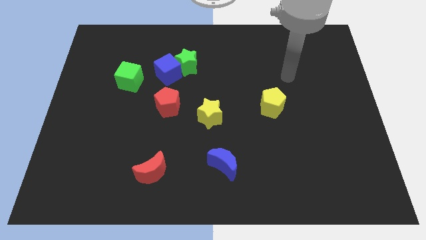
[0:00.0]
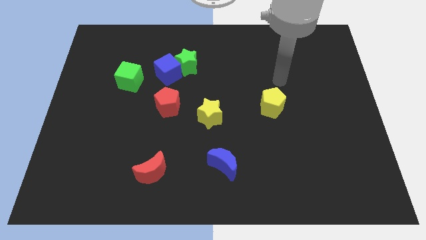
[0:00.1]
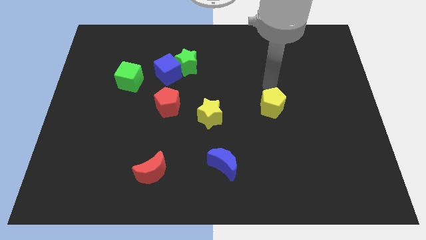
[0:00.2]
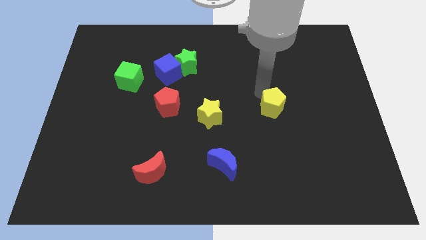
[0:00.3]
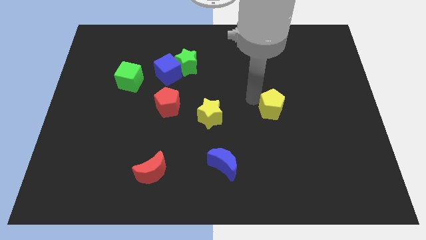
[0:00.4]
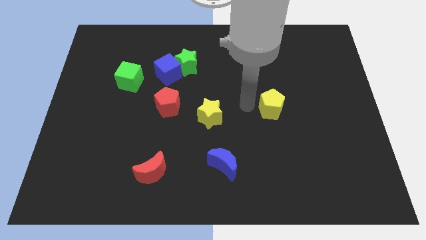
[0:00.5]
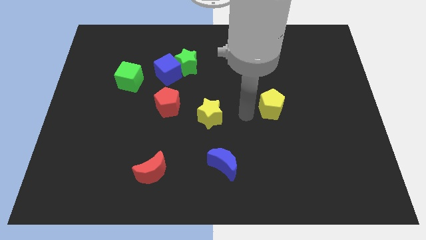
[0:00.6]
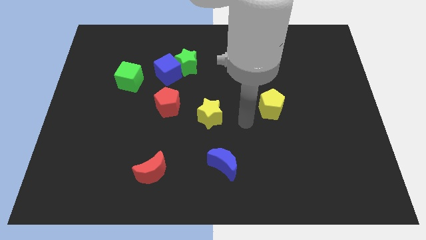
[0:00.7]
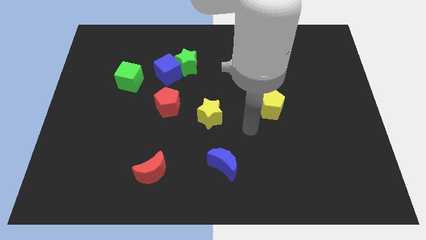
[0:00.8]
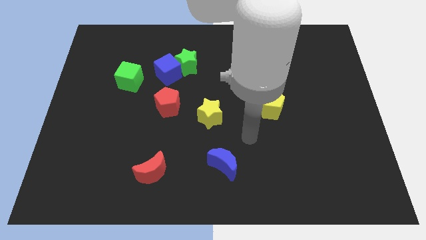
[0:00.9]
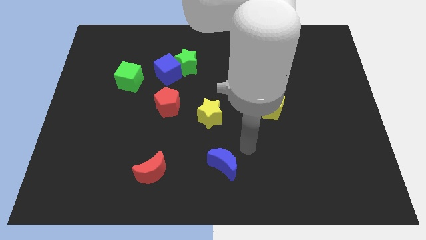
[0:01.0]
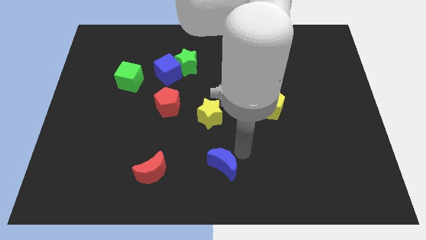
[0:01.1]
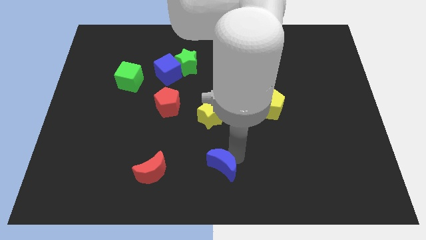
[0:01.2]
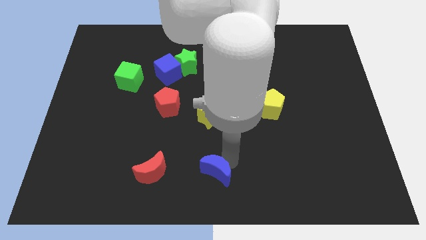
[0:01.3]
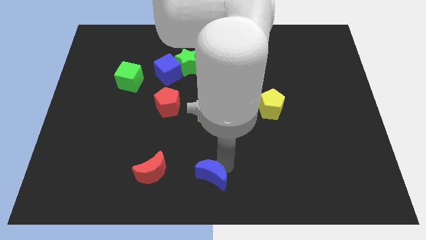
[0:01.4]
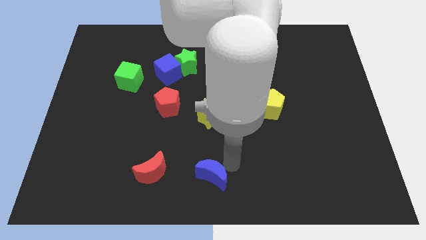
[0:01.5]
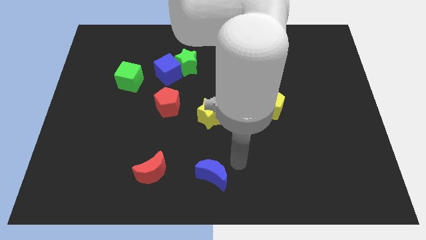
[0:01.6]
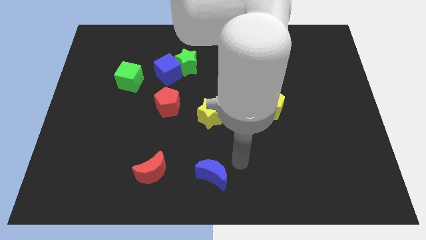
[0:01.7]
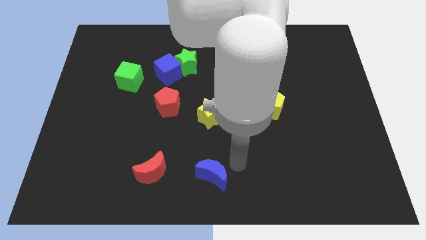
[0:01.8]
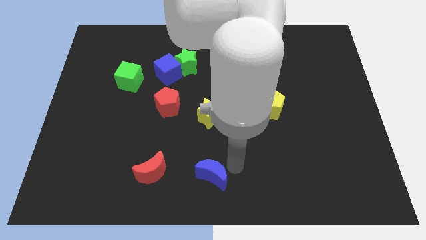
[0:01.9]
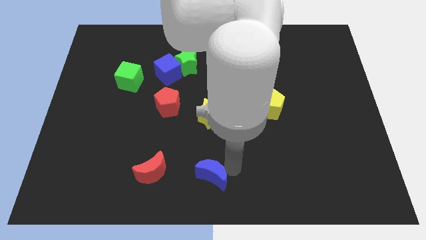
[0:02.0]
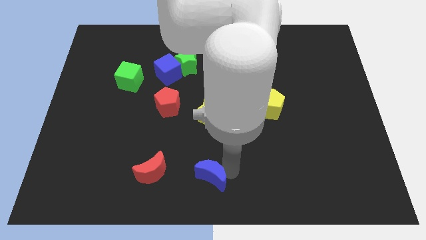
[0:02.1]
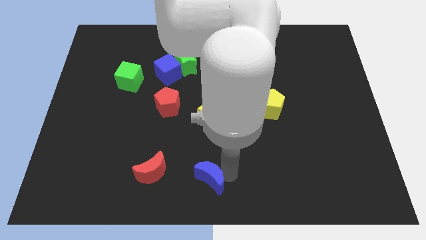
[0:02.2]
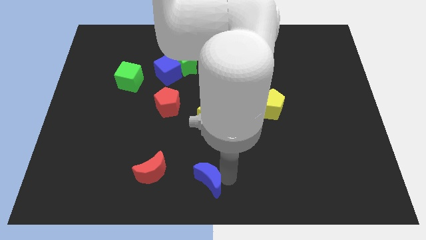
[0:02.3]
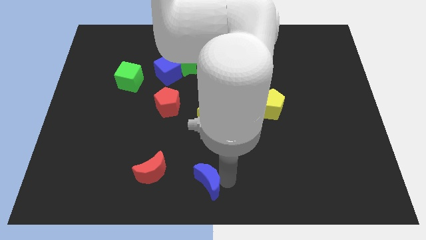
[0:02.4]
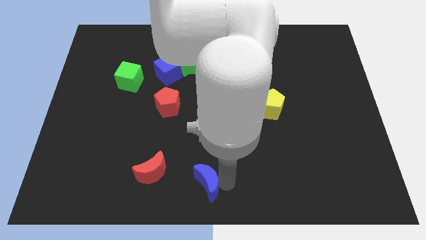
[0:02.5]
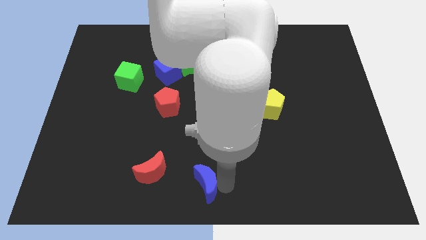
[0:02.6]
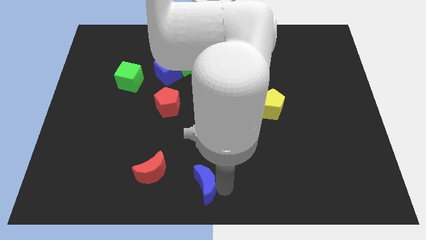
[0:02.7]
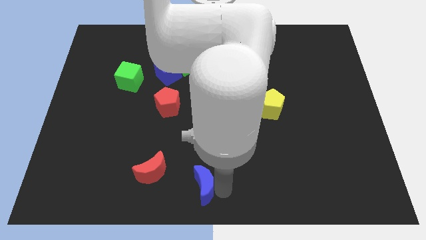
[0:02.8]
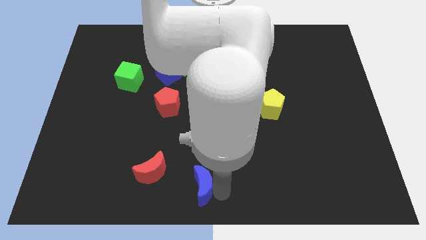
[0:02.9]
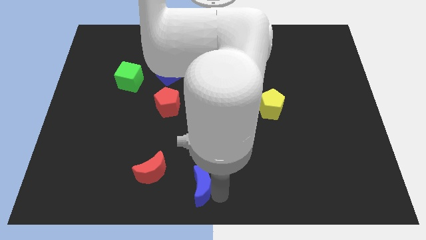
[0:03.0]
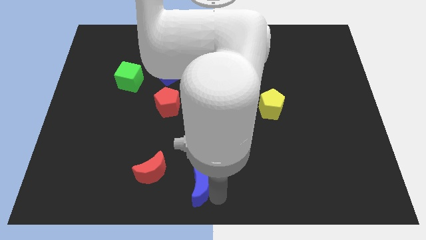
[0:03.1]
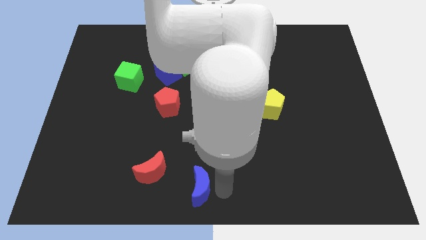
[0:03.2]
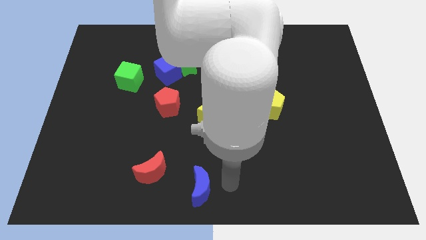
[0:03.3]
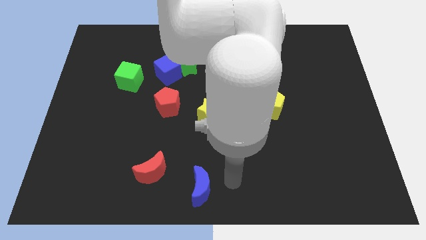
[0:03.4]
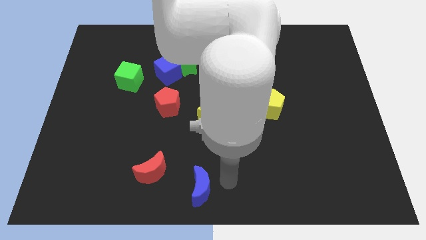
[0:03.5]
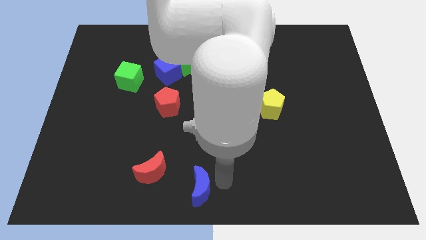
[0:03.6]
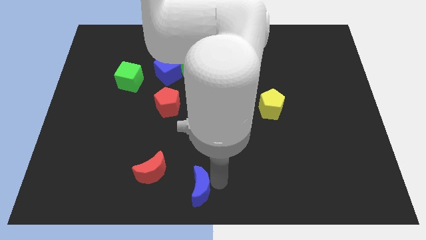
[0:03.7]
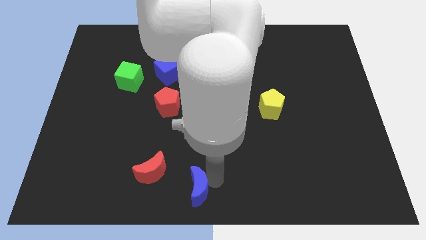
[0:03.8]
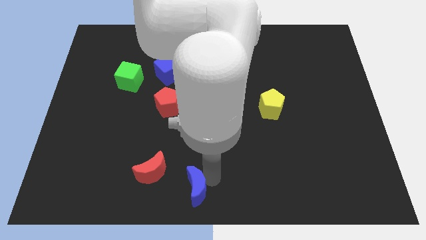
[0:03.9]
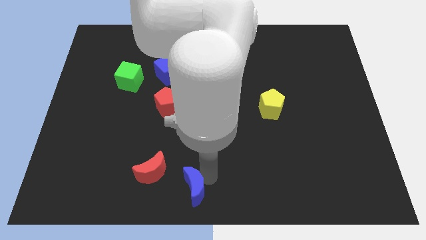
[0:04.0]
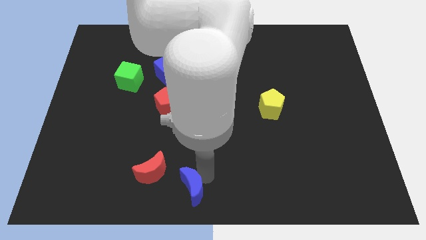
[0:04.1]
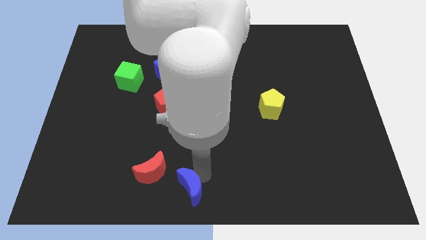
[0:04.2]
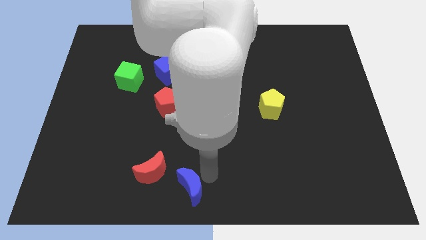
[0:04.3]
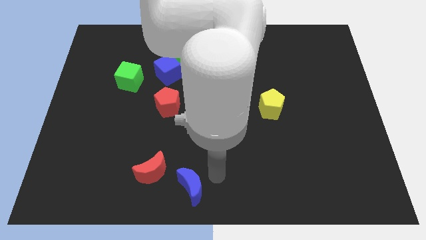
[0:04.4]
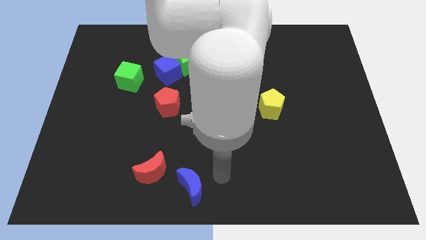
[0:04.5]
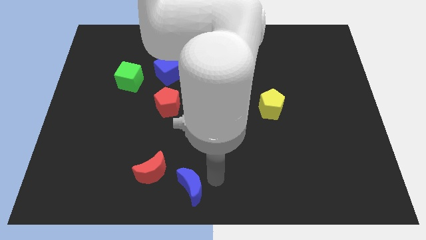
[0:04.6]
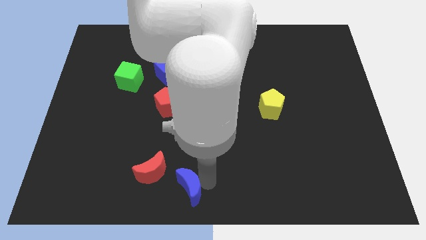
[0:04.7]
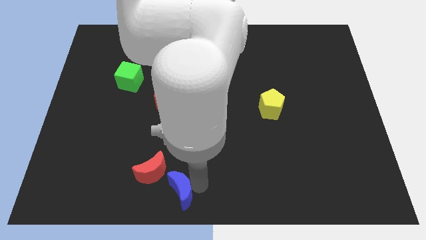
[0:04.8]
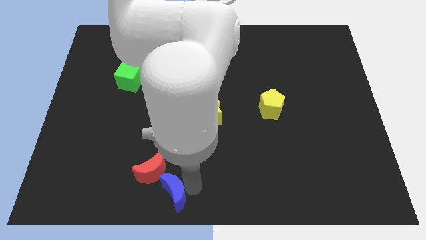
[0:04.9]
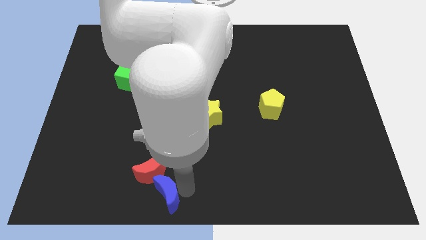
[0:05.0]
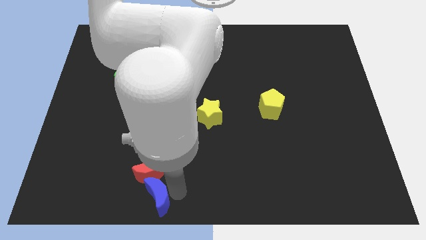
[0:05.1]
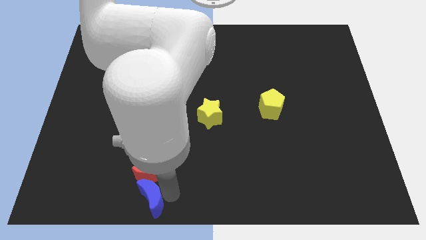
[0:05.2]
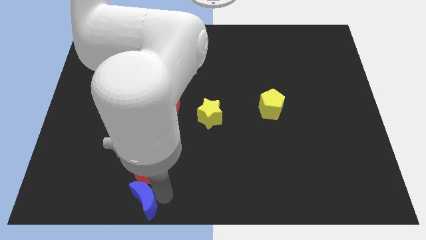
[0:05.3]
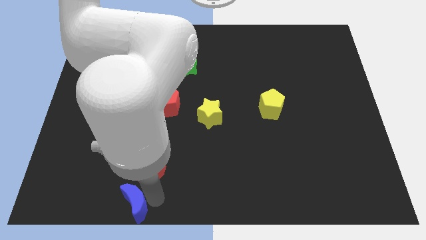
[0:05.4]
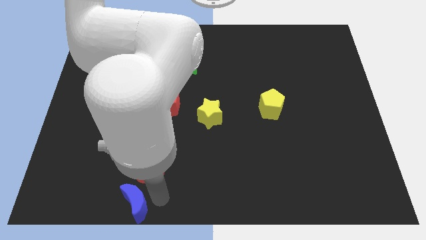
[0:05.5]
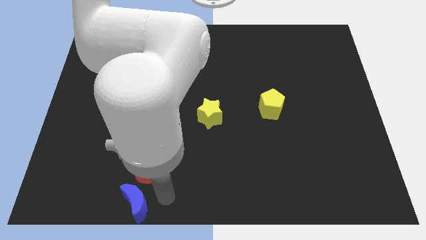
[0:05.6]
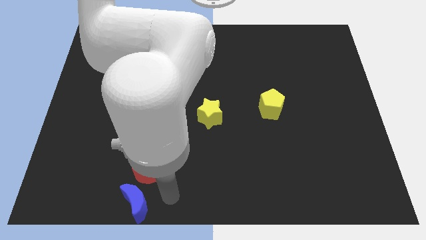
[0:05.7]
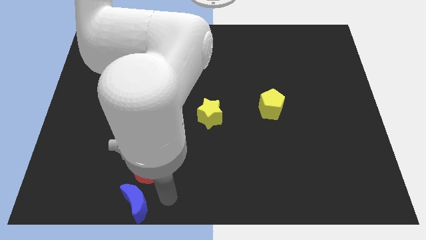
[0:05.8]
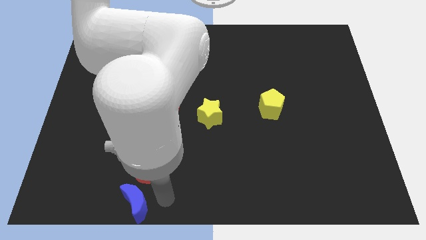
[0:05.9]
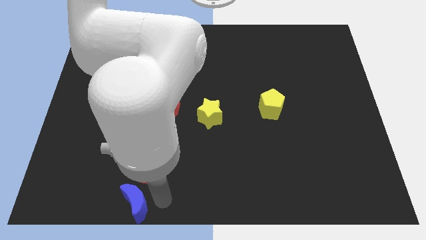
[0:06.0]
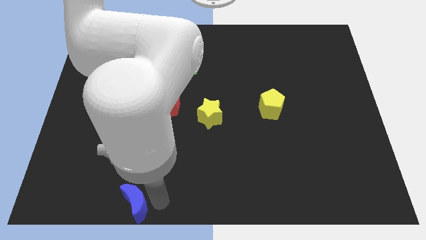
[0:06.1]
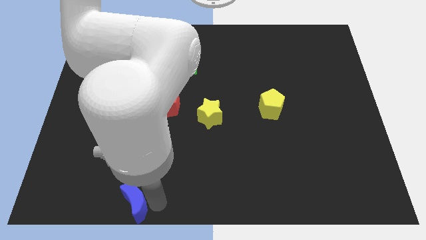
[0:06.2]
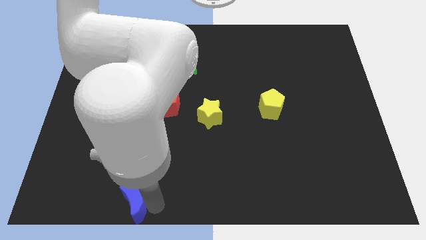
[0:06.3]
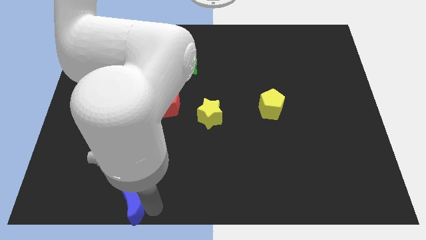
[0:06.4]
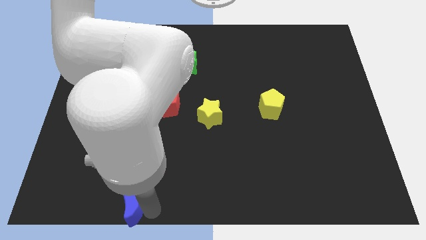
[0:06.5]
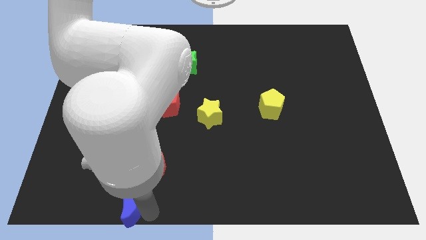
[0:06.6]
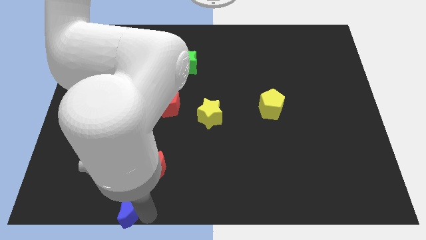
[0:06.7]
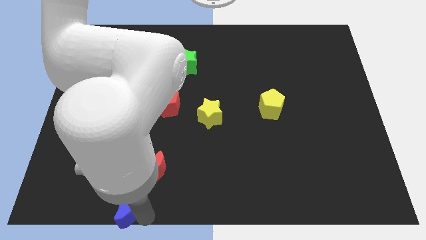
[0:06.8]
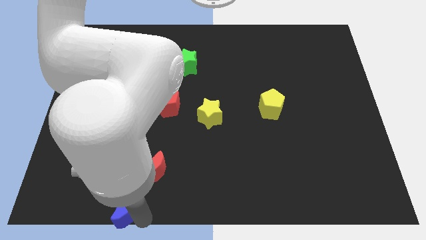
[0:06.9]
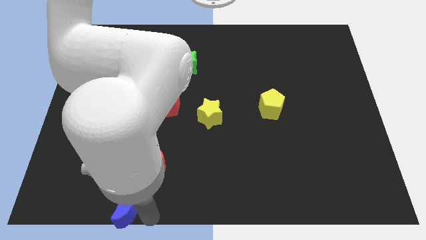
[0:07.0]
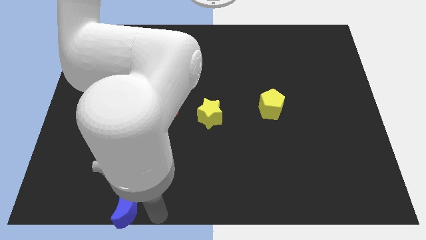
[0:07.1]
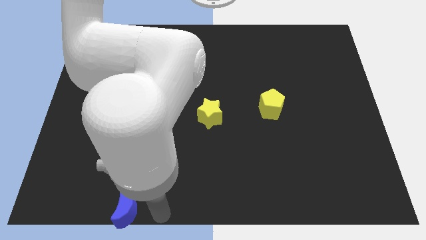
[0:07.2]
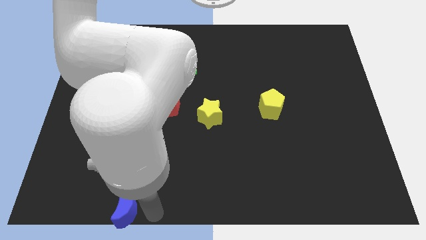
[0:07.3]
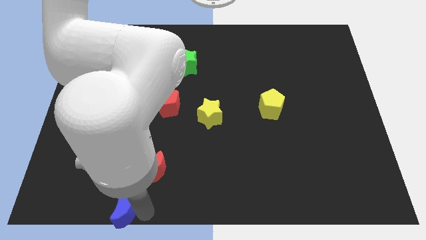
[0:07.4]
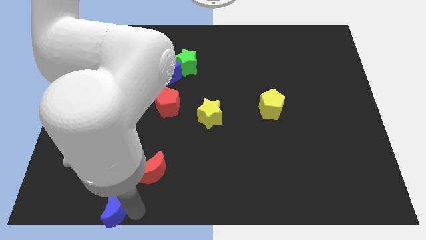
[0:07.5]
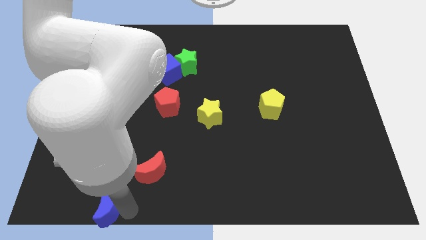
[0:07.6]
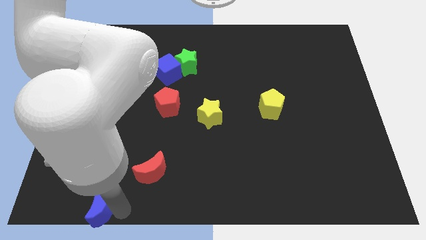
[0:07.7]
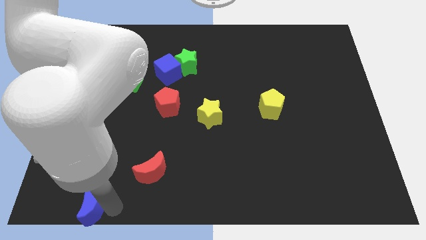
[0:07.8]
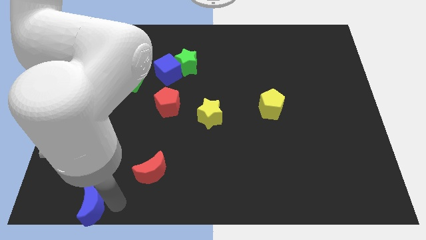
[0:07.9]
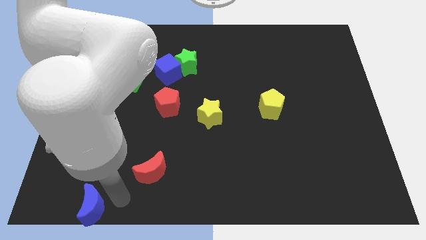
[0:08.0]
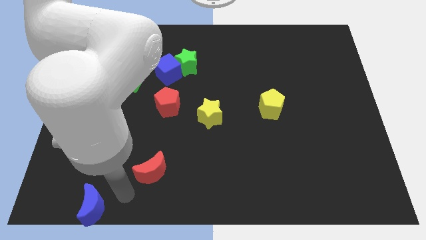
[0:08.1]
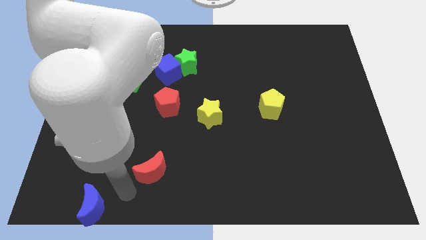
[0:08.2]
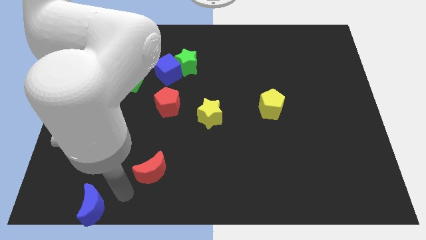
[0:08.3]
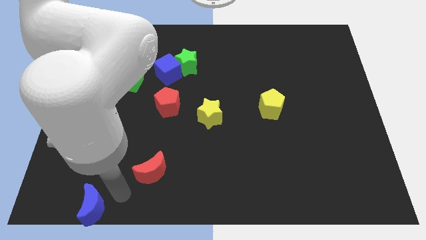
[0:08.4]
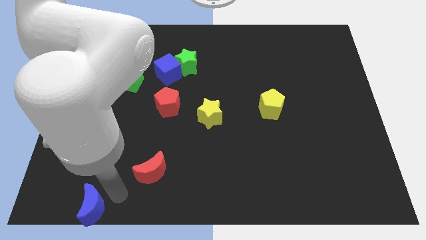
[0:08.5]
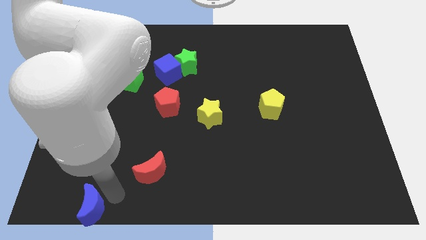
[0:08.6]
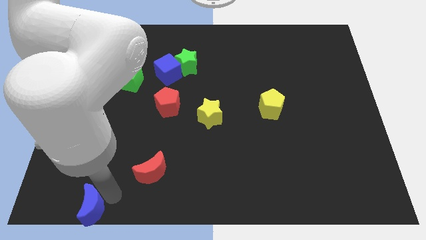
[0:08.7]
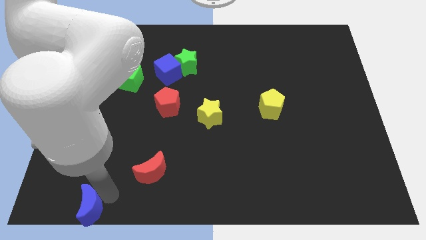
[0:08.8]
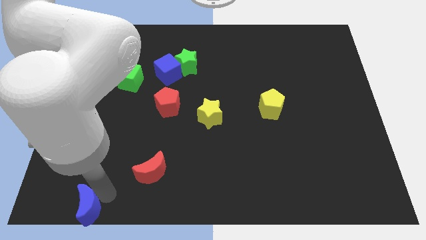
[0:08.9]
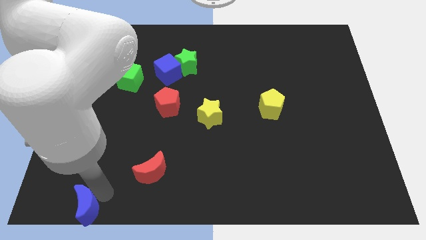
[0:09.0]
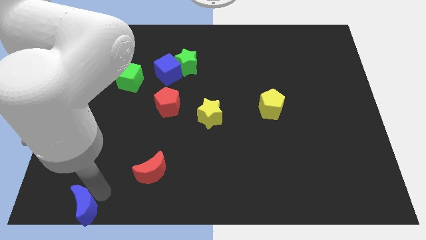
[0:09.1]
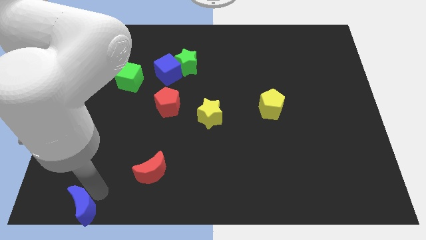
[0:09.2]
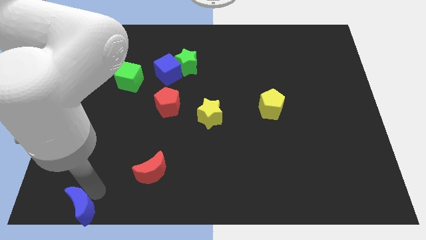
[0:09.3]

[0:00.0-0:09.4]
slide the blue moon to the bottom left of the board
